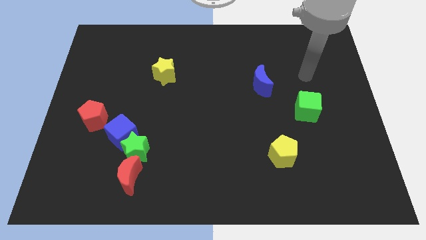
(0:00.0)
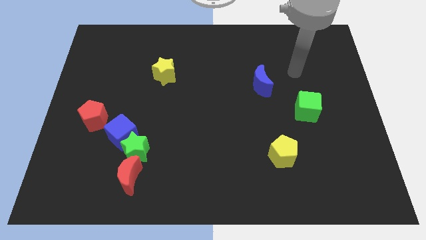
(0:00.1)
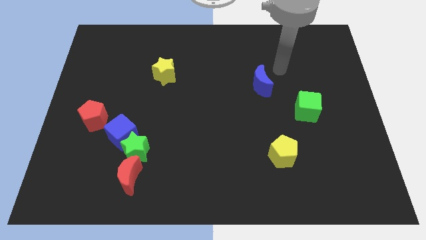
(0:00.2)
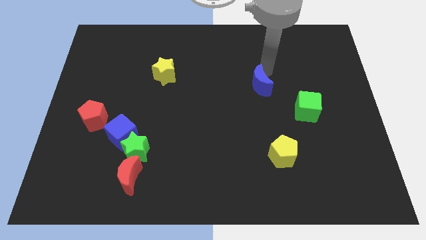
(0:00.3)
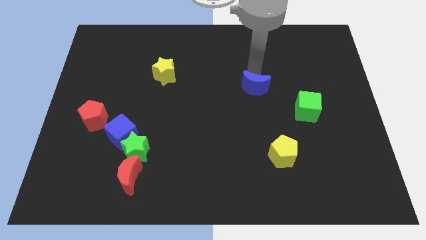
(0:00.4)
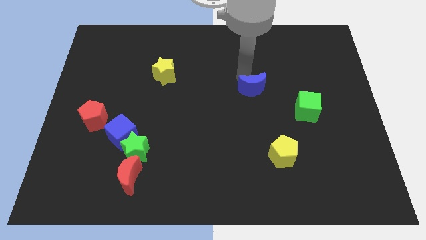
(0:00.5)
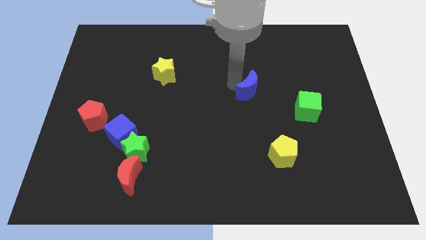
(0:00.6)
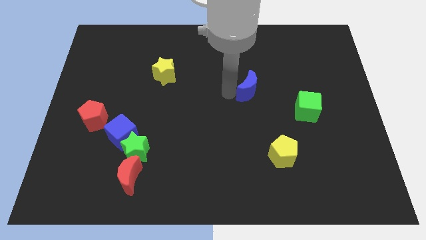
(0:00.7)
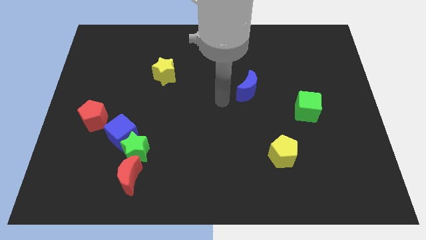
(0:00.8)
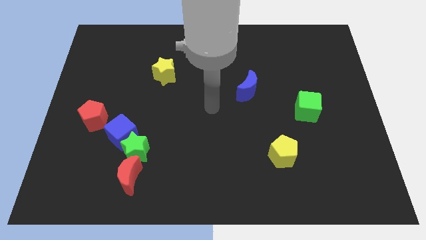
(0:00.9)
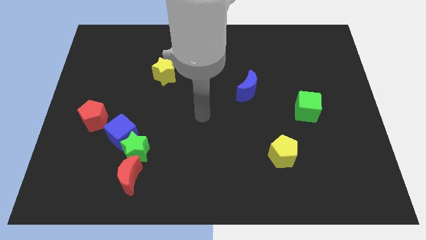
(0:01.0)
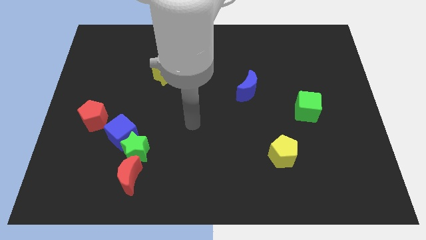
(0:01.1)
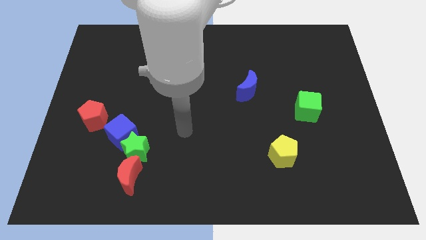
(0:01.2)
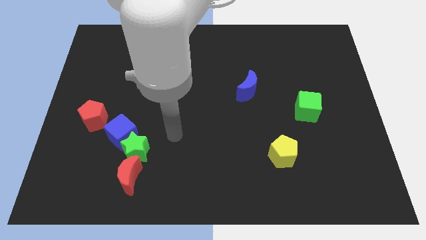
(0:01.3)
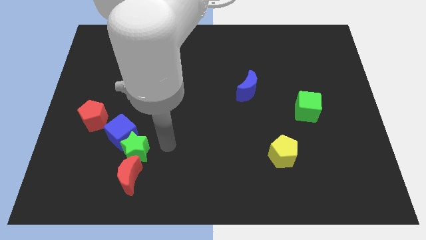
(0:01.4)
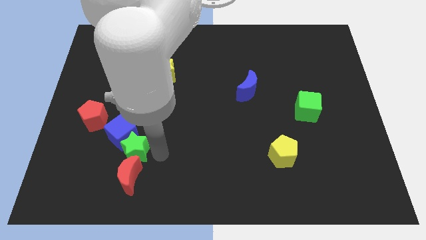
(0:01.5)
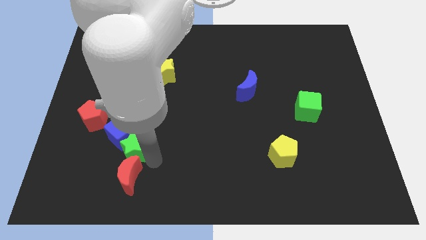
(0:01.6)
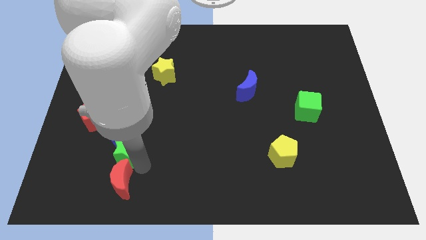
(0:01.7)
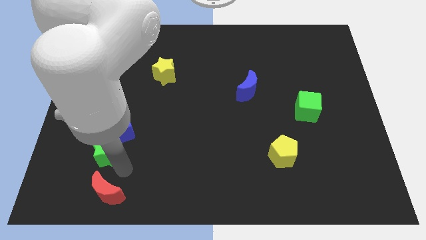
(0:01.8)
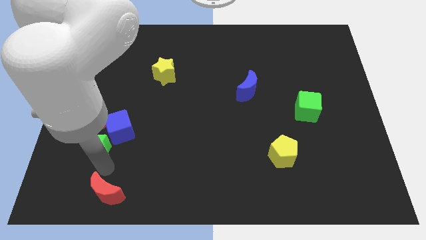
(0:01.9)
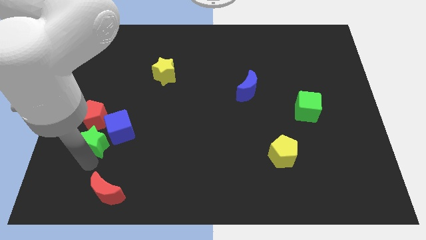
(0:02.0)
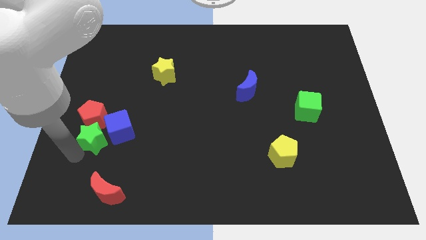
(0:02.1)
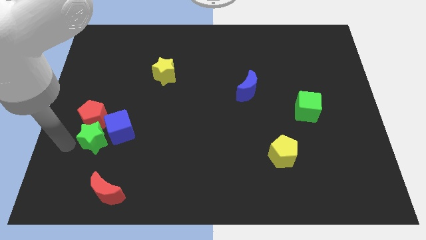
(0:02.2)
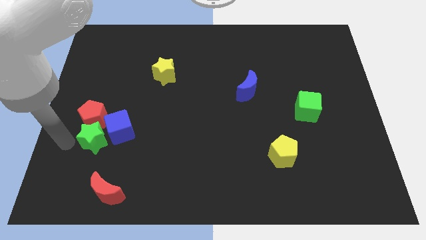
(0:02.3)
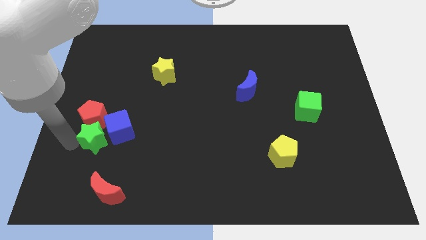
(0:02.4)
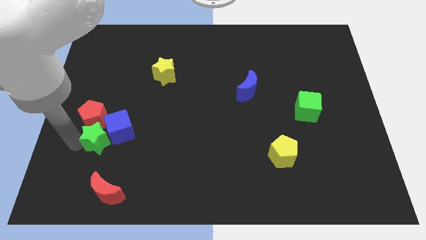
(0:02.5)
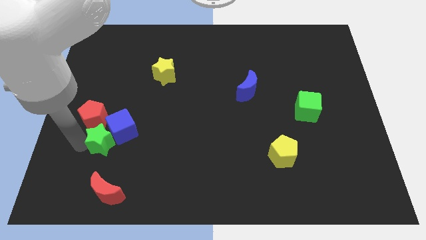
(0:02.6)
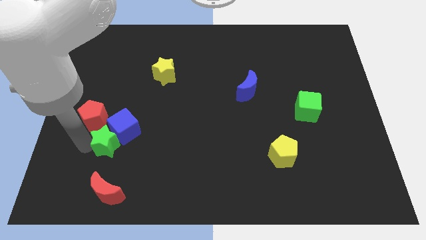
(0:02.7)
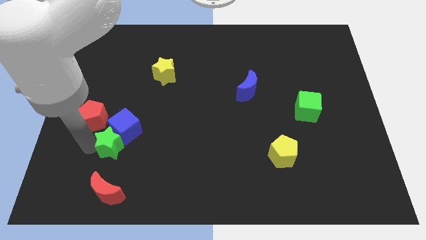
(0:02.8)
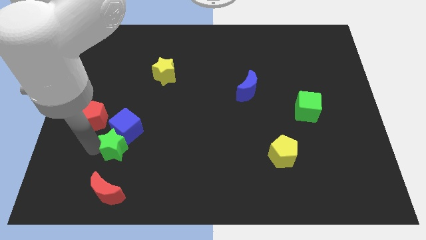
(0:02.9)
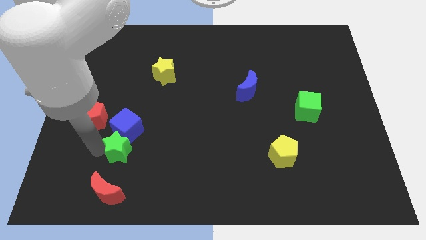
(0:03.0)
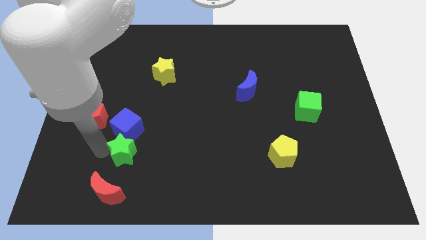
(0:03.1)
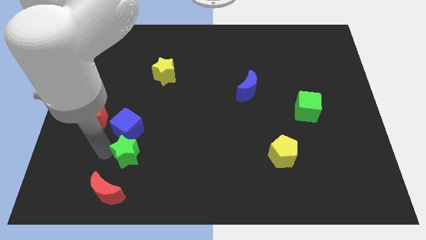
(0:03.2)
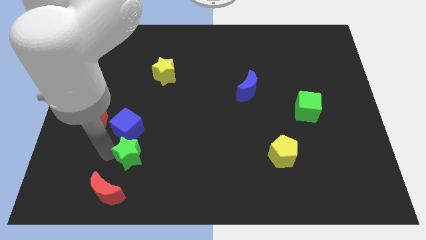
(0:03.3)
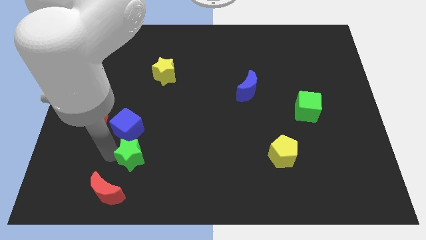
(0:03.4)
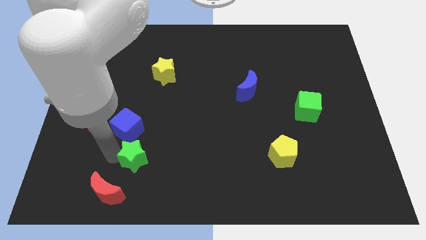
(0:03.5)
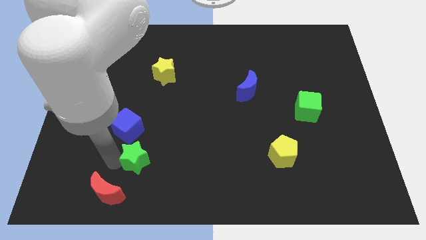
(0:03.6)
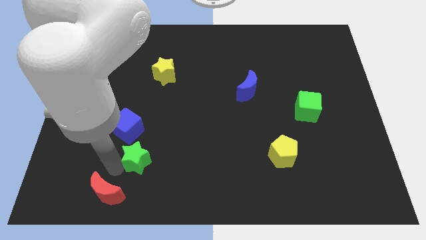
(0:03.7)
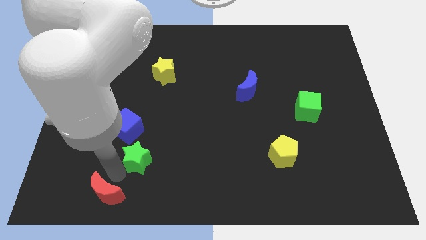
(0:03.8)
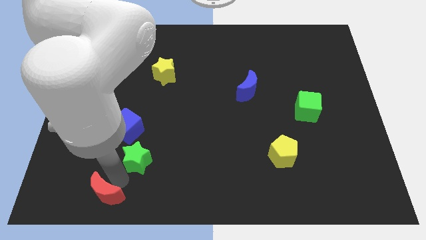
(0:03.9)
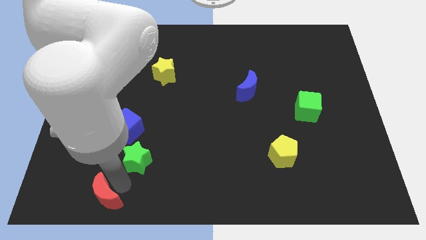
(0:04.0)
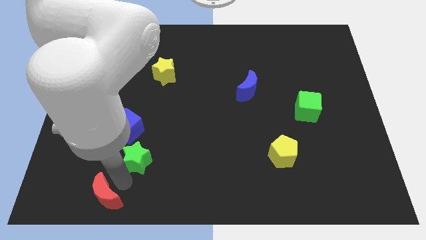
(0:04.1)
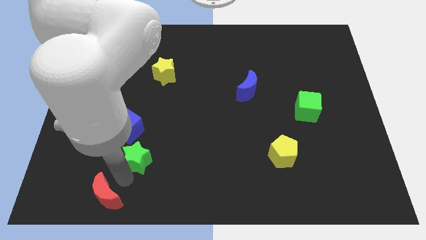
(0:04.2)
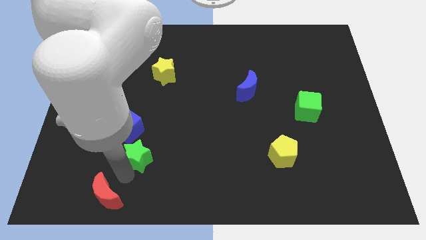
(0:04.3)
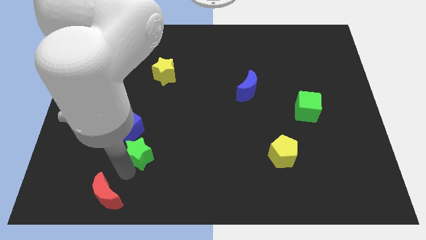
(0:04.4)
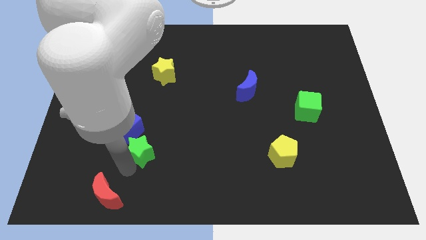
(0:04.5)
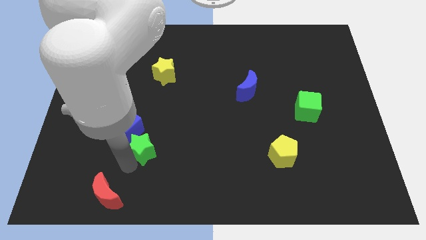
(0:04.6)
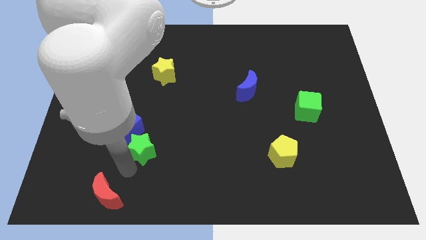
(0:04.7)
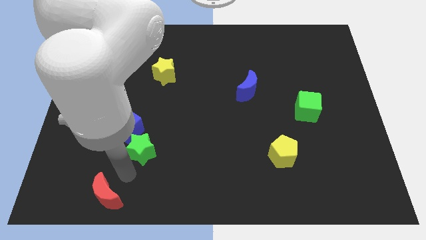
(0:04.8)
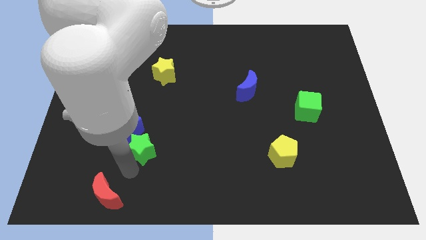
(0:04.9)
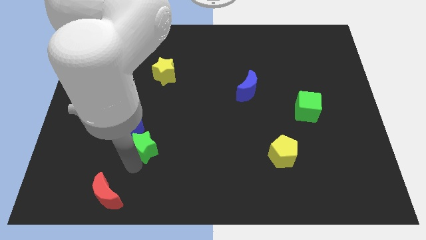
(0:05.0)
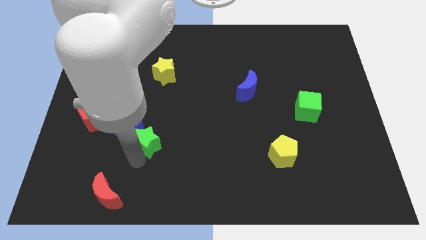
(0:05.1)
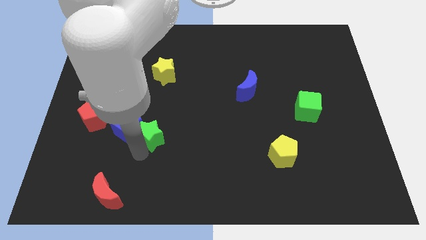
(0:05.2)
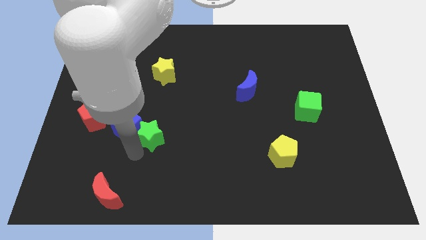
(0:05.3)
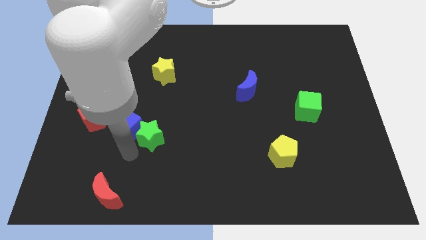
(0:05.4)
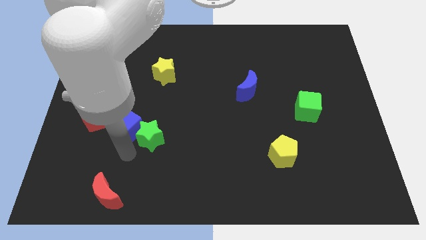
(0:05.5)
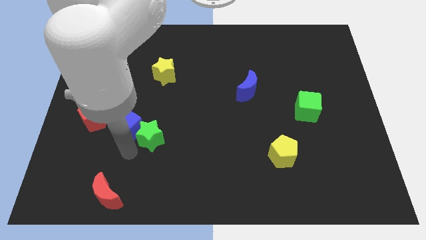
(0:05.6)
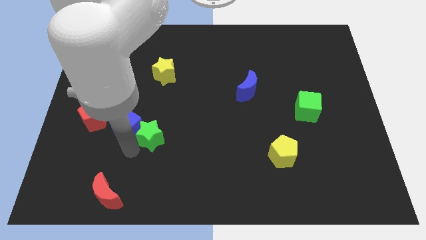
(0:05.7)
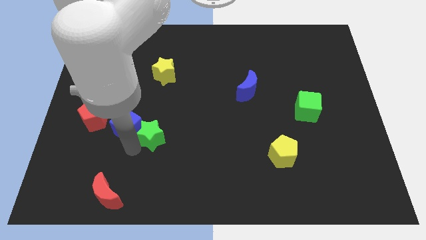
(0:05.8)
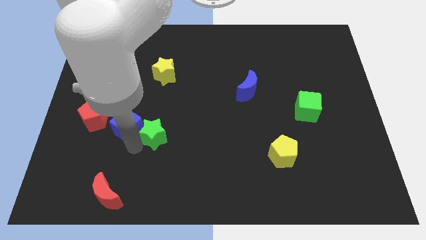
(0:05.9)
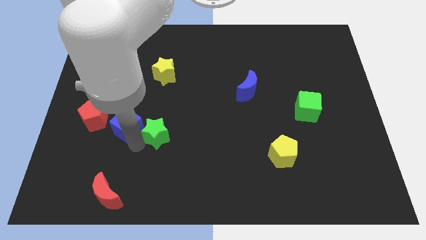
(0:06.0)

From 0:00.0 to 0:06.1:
move the green star away from the blue cube and red moon

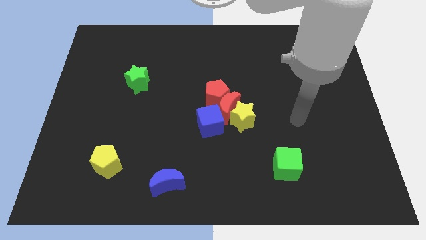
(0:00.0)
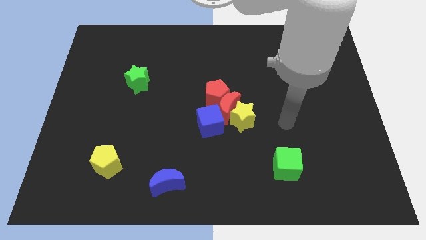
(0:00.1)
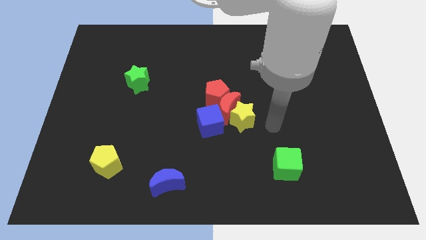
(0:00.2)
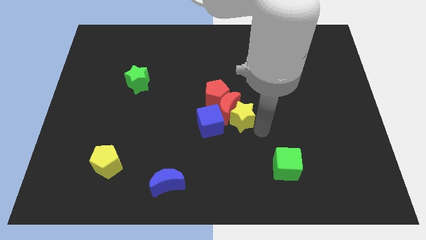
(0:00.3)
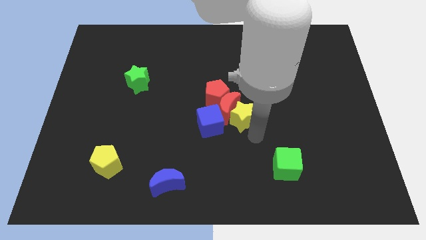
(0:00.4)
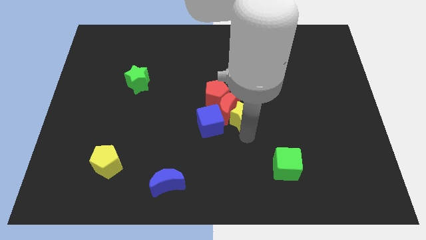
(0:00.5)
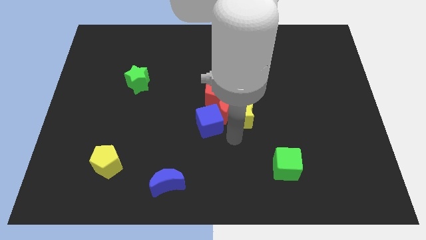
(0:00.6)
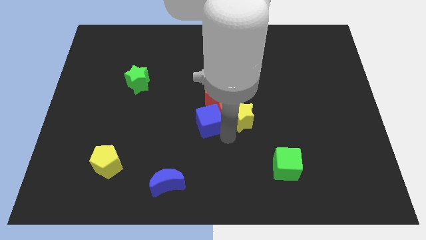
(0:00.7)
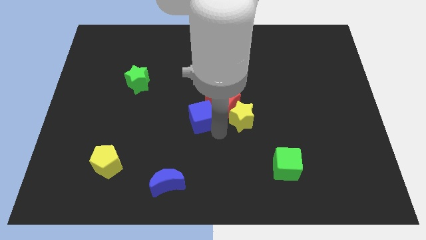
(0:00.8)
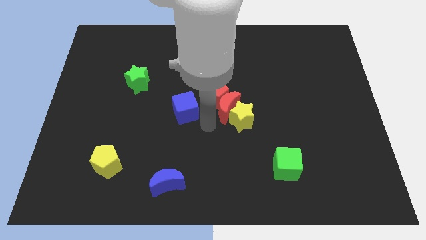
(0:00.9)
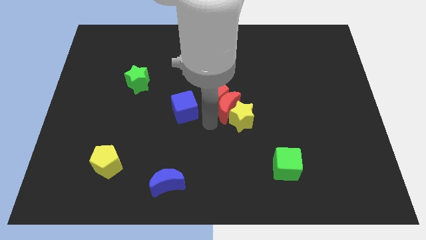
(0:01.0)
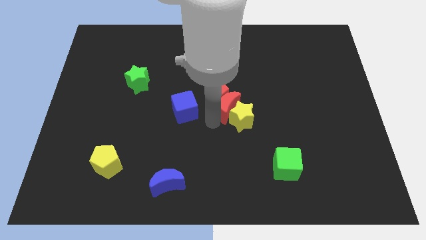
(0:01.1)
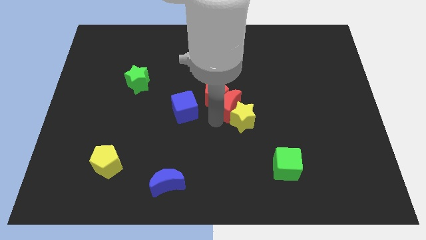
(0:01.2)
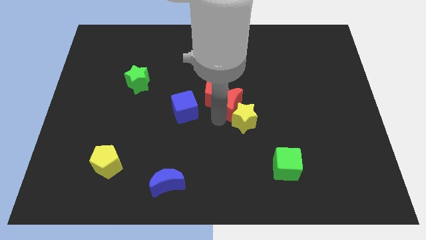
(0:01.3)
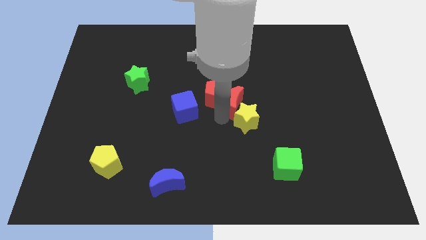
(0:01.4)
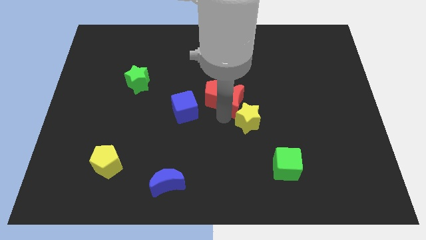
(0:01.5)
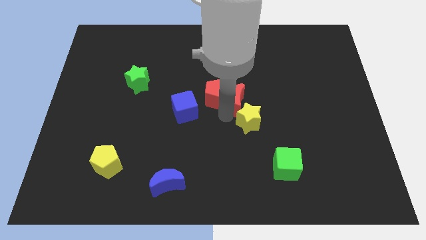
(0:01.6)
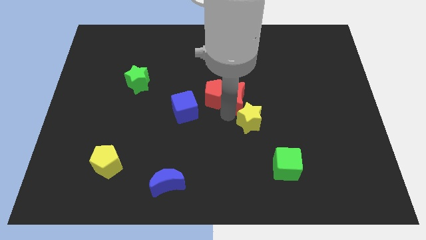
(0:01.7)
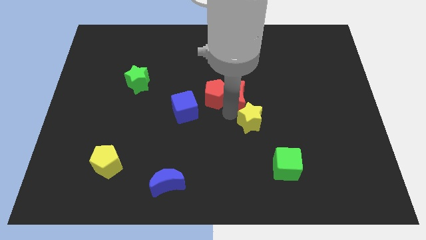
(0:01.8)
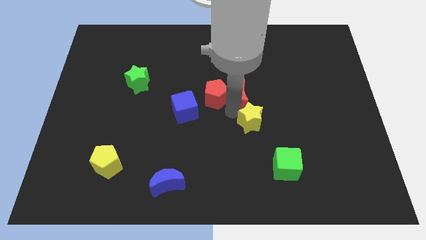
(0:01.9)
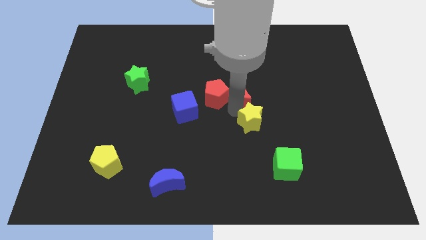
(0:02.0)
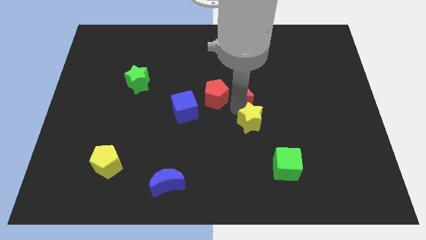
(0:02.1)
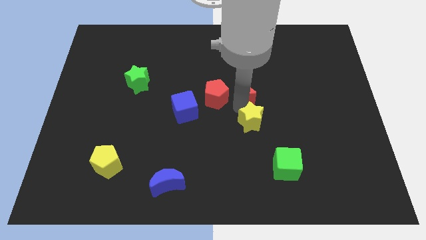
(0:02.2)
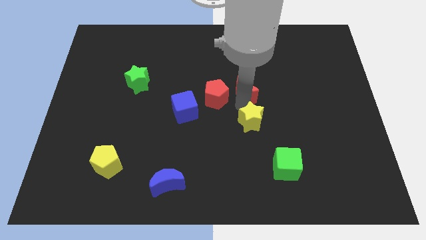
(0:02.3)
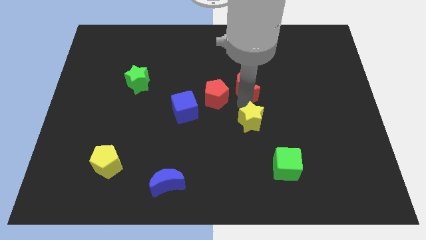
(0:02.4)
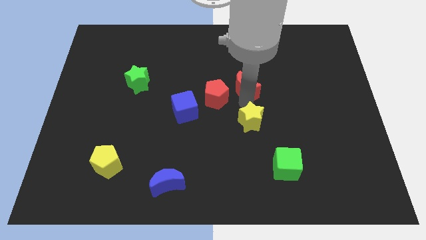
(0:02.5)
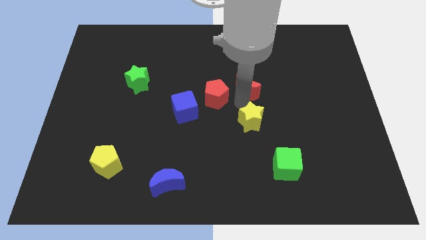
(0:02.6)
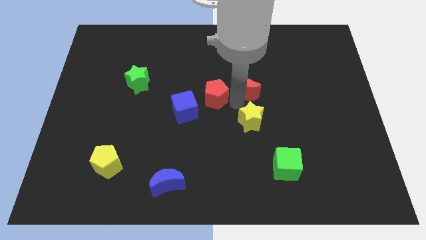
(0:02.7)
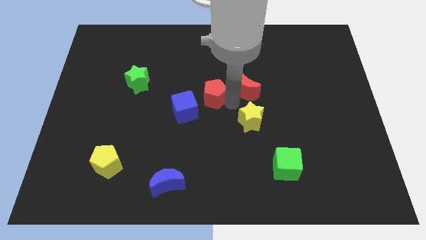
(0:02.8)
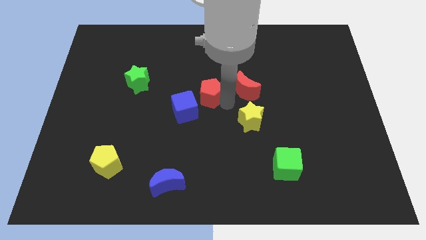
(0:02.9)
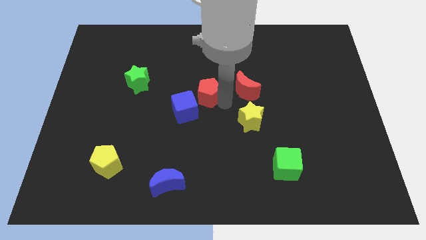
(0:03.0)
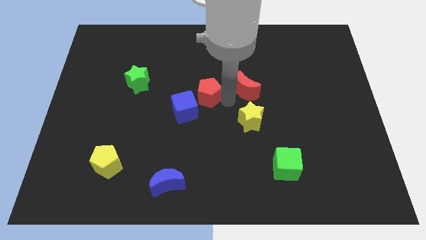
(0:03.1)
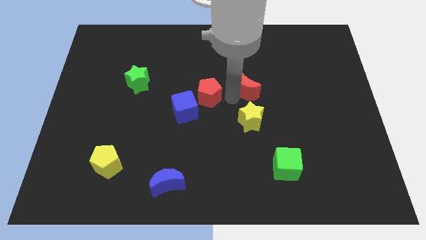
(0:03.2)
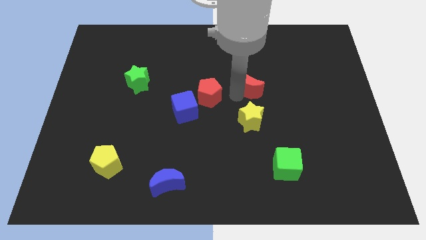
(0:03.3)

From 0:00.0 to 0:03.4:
separate the red moon from the yellow star, red pentagon, and blue cube
